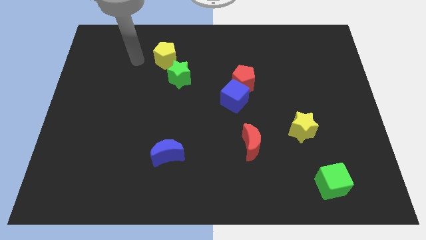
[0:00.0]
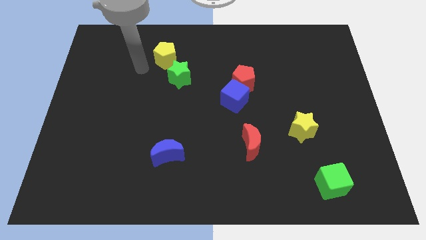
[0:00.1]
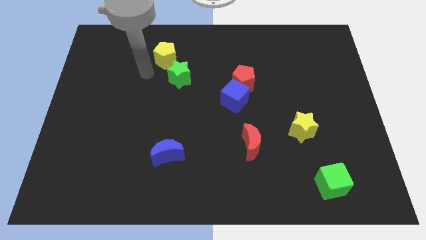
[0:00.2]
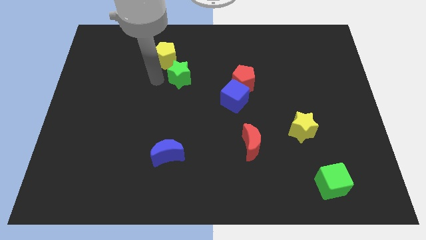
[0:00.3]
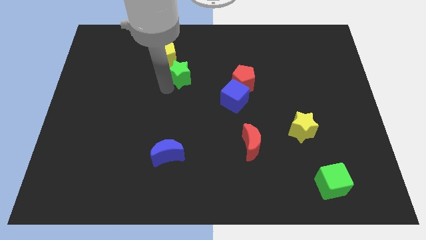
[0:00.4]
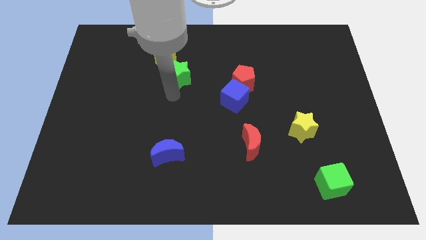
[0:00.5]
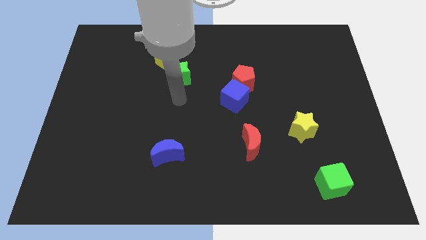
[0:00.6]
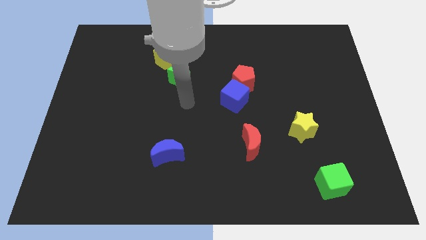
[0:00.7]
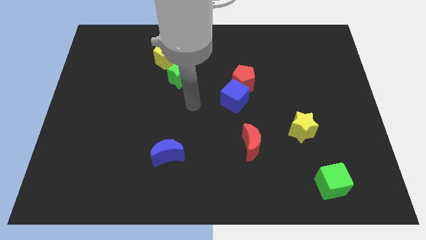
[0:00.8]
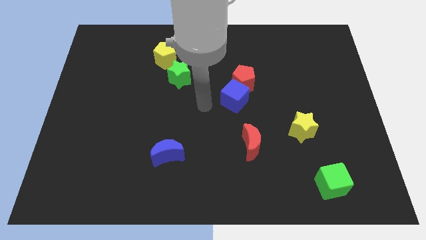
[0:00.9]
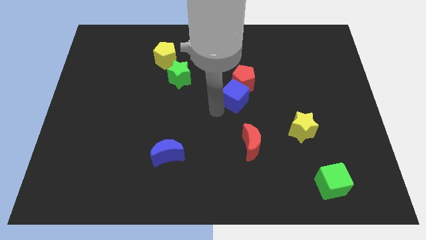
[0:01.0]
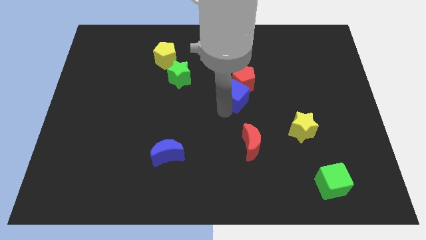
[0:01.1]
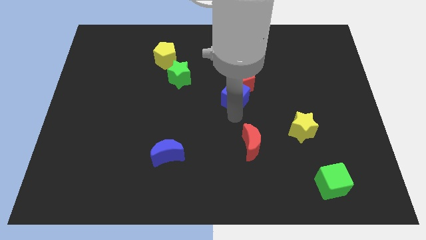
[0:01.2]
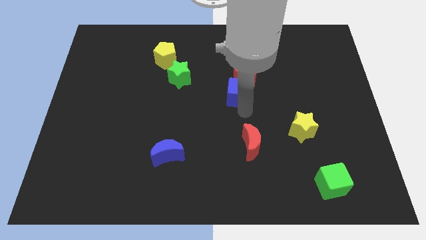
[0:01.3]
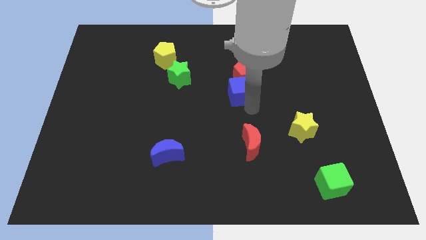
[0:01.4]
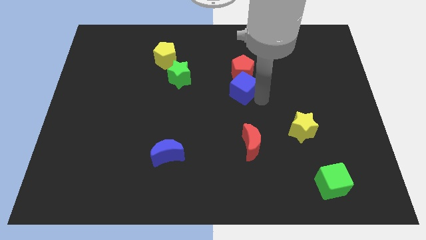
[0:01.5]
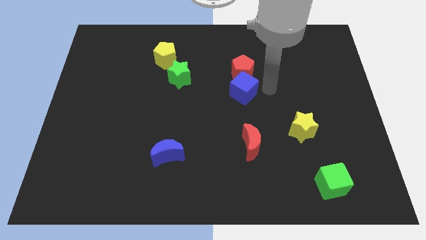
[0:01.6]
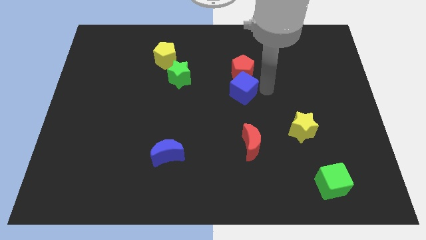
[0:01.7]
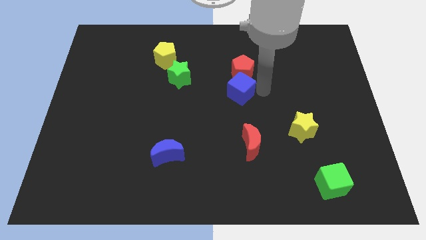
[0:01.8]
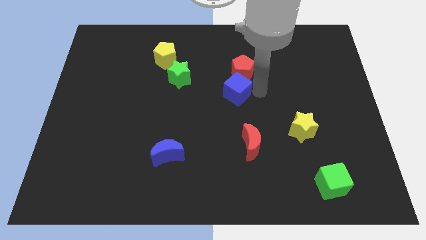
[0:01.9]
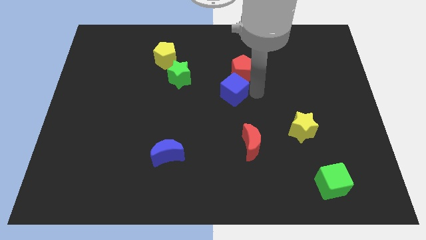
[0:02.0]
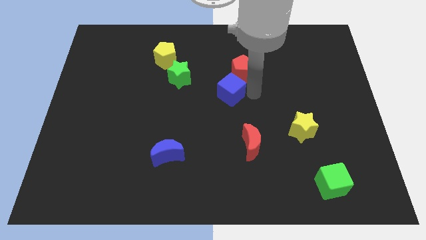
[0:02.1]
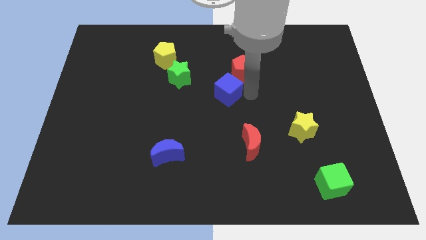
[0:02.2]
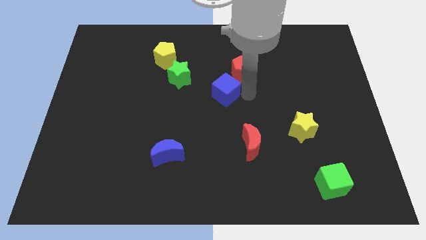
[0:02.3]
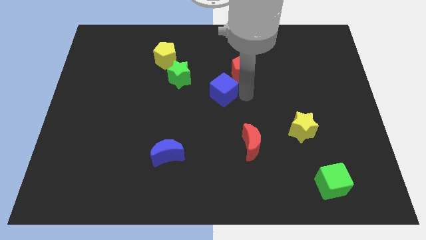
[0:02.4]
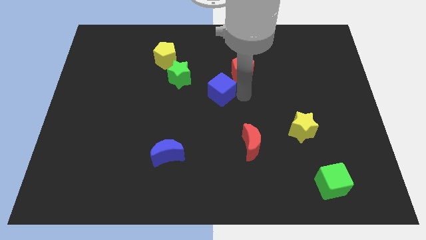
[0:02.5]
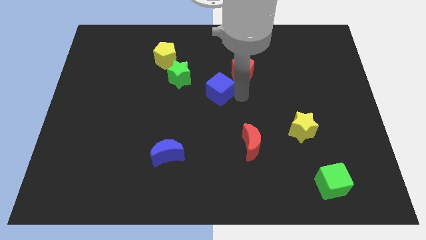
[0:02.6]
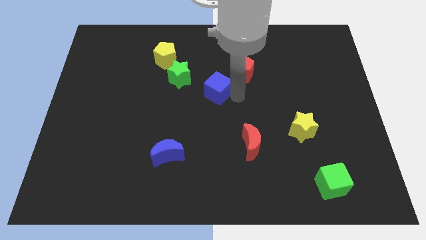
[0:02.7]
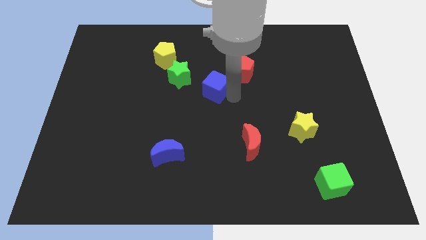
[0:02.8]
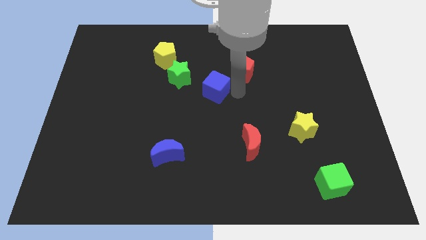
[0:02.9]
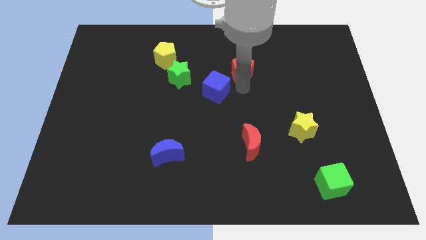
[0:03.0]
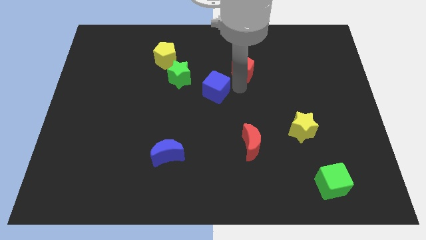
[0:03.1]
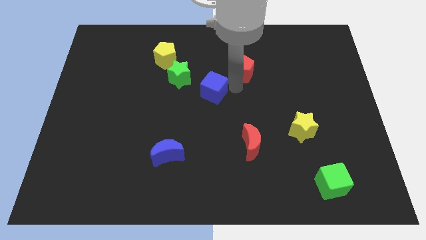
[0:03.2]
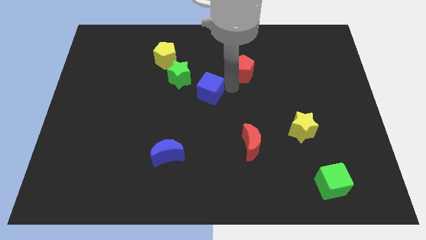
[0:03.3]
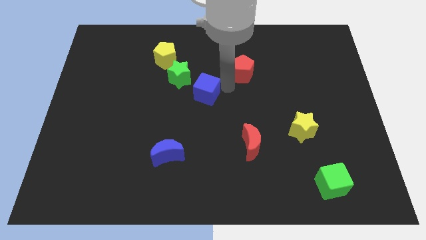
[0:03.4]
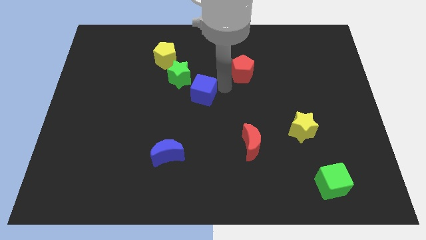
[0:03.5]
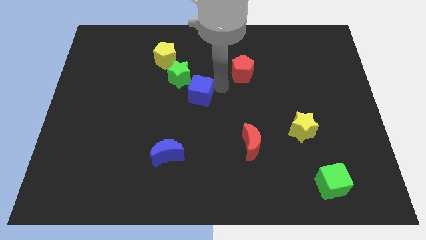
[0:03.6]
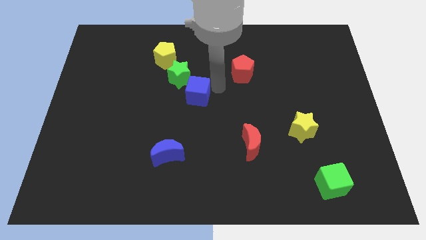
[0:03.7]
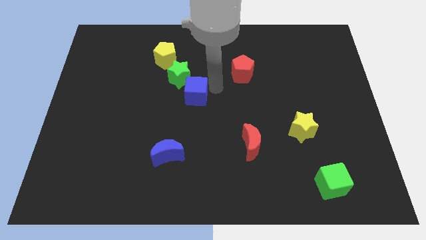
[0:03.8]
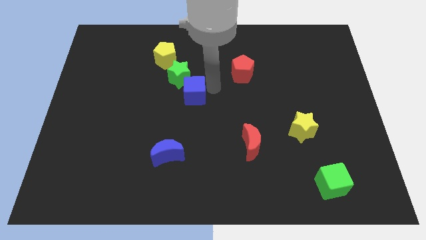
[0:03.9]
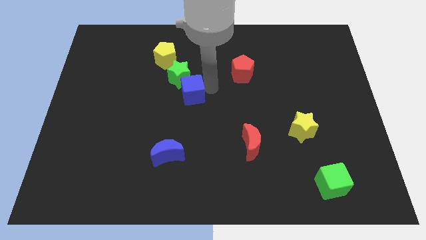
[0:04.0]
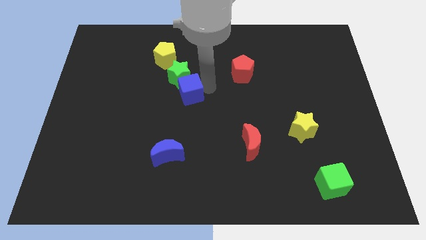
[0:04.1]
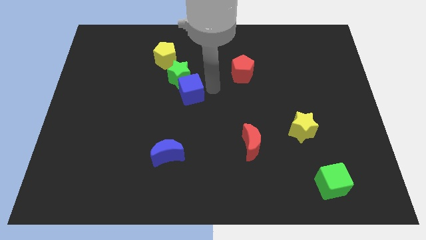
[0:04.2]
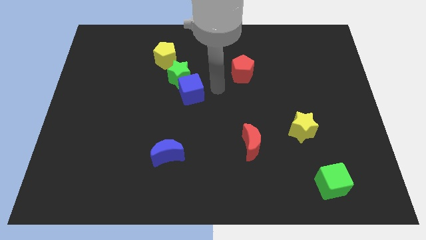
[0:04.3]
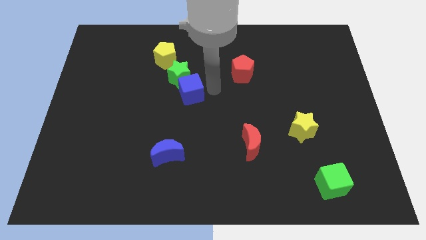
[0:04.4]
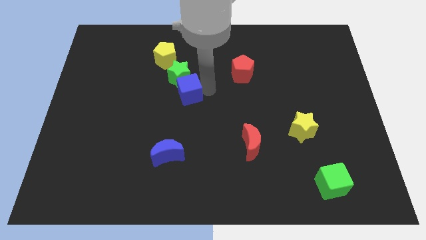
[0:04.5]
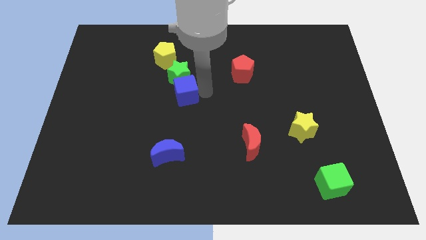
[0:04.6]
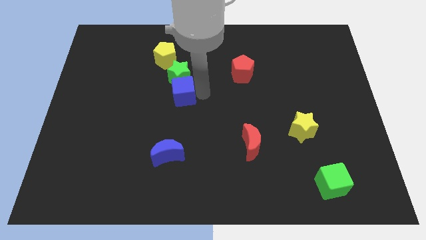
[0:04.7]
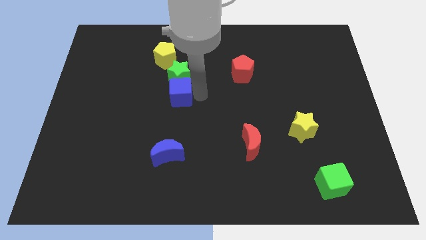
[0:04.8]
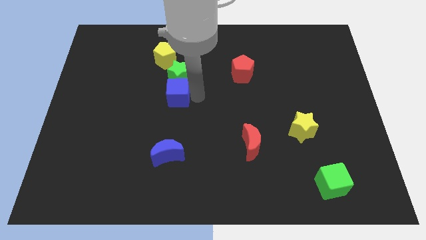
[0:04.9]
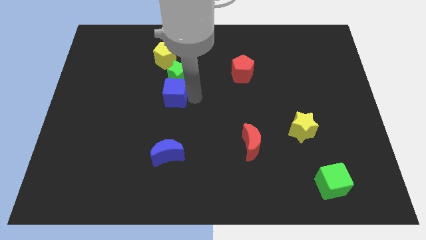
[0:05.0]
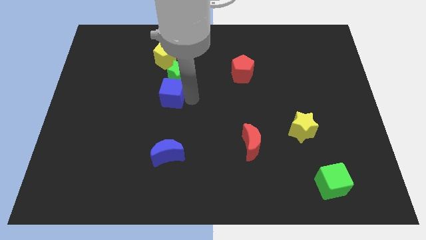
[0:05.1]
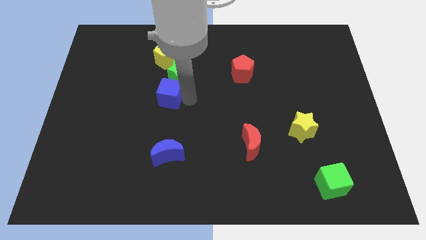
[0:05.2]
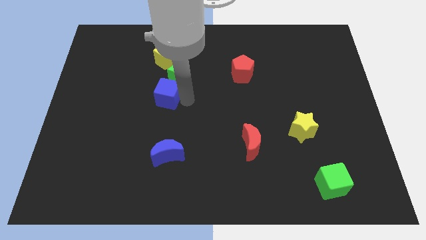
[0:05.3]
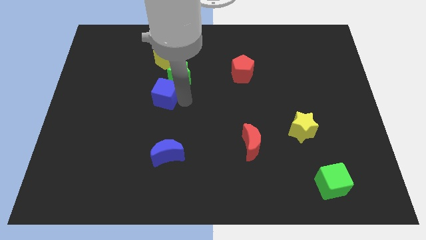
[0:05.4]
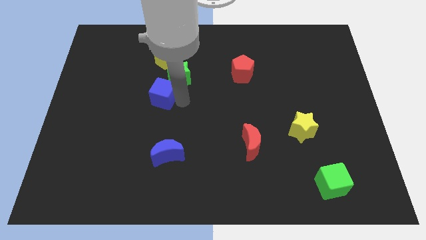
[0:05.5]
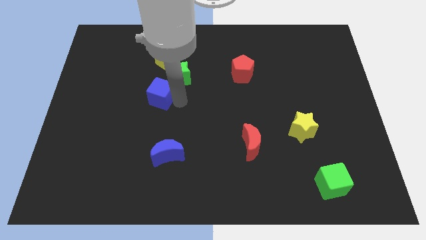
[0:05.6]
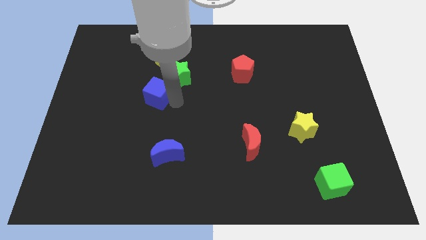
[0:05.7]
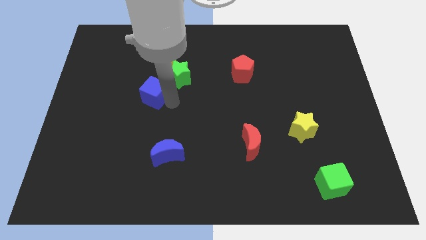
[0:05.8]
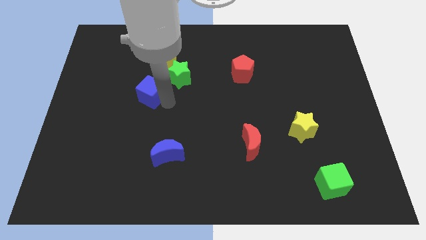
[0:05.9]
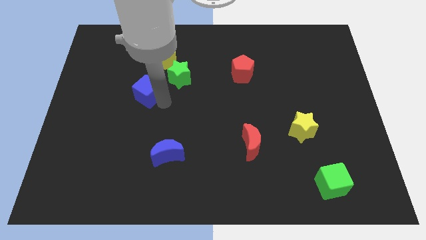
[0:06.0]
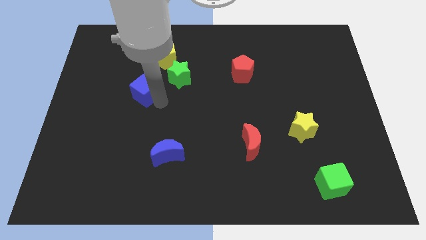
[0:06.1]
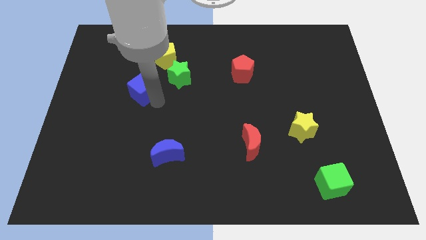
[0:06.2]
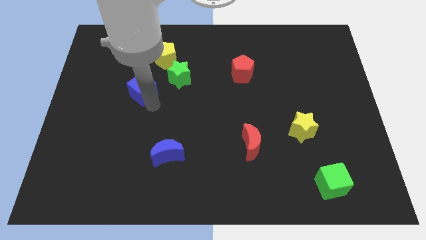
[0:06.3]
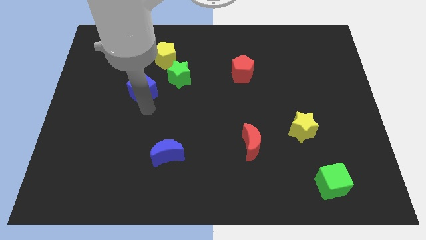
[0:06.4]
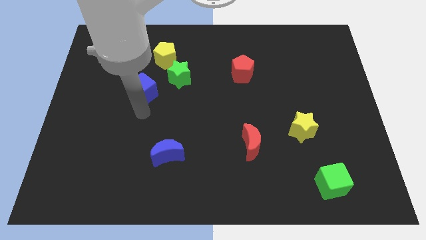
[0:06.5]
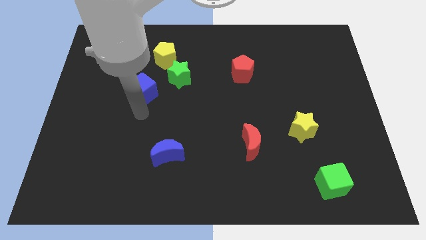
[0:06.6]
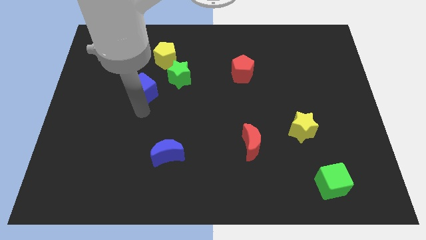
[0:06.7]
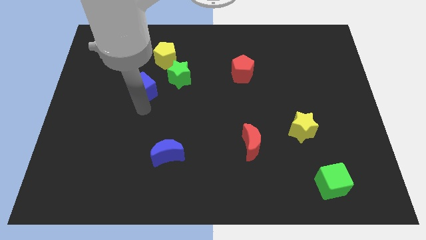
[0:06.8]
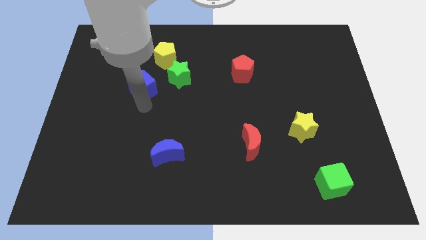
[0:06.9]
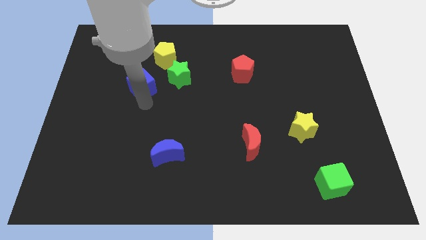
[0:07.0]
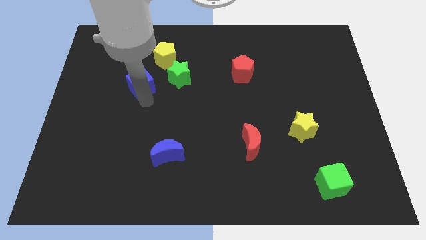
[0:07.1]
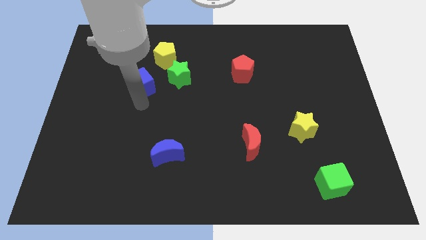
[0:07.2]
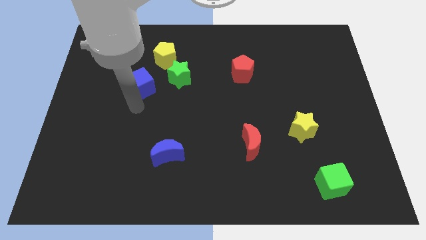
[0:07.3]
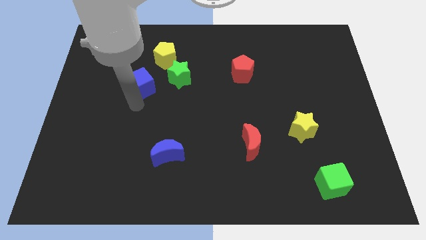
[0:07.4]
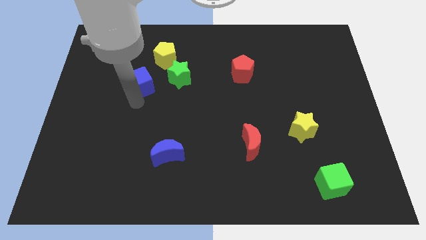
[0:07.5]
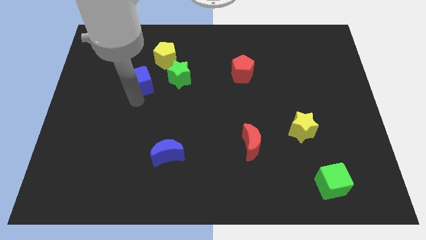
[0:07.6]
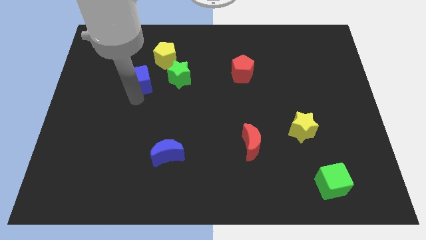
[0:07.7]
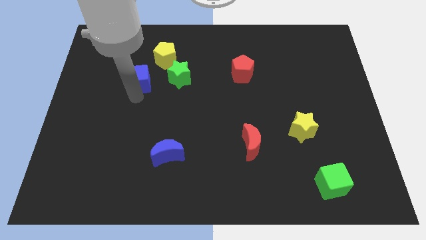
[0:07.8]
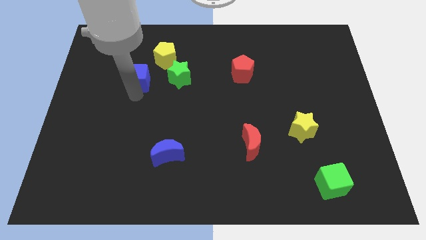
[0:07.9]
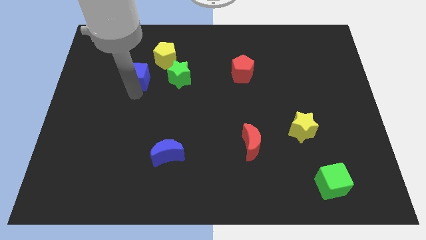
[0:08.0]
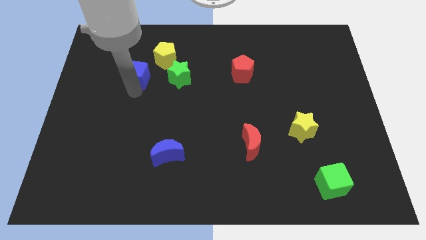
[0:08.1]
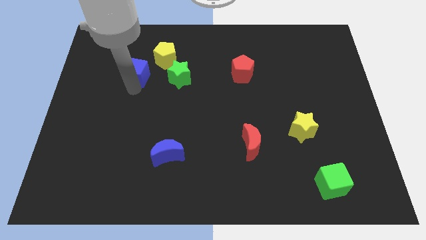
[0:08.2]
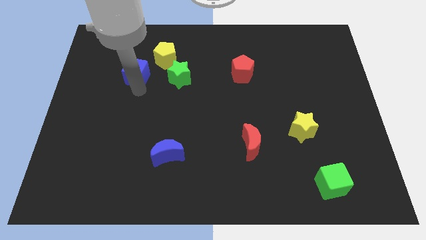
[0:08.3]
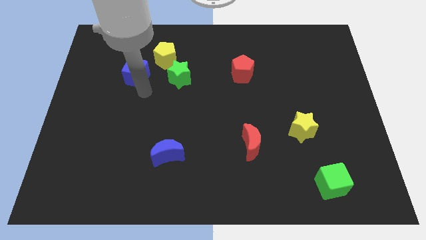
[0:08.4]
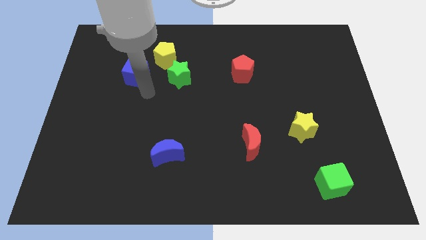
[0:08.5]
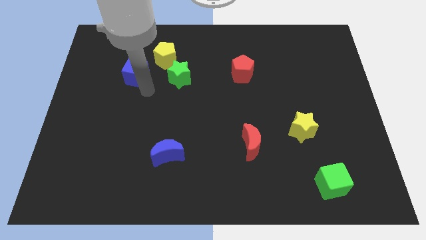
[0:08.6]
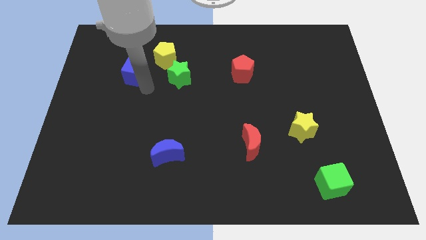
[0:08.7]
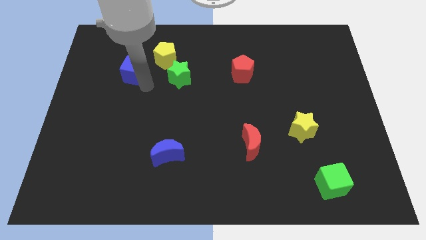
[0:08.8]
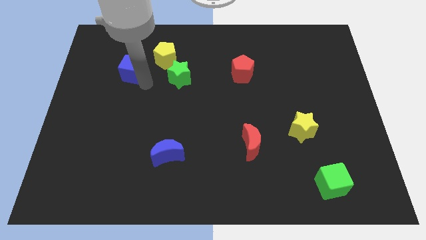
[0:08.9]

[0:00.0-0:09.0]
slide the blue cube to the left of the yellow pentagon
